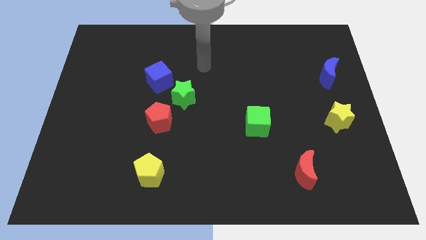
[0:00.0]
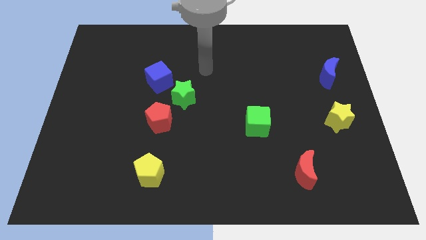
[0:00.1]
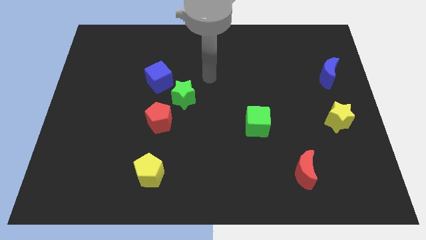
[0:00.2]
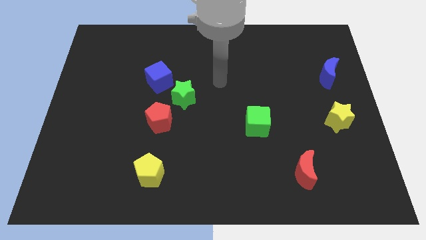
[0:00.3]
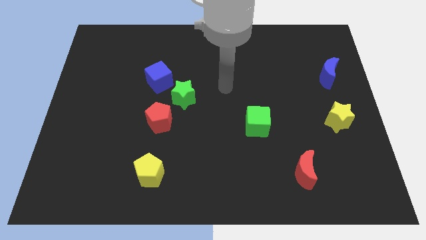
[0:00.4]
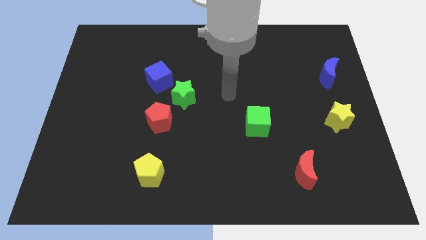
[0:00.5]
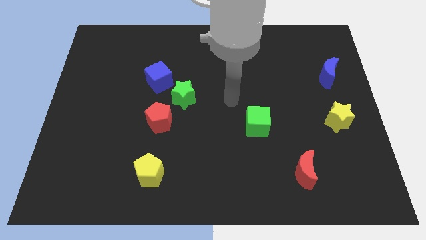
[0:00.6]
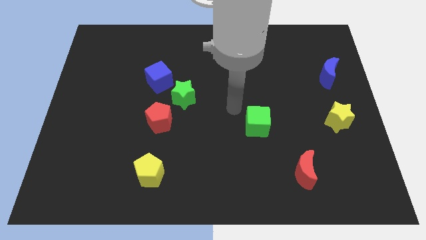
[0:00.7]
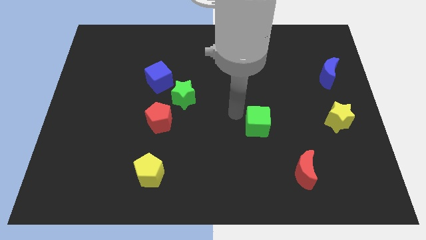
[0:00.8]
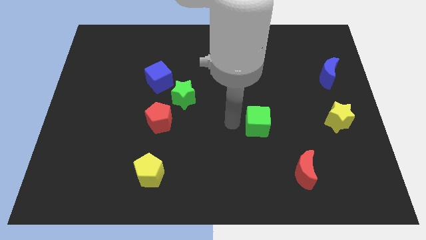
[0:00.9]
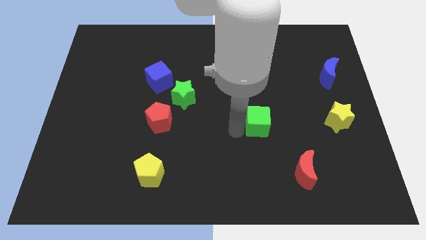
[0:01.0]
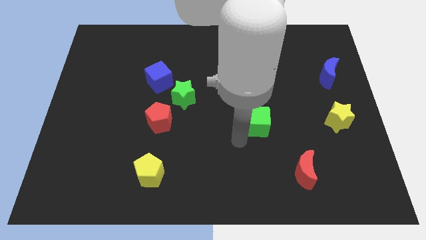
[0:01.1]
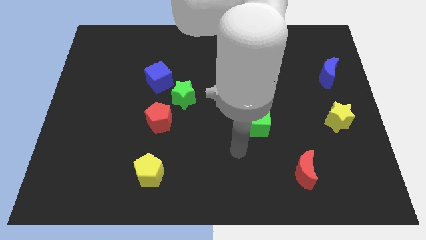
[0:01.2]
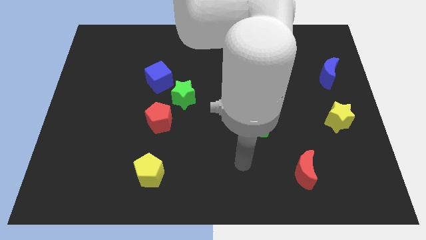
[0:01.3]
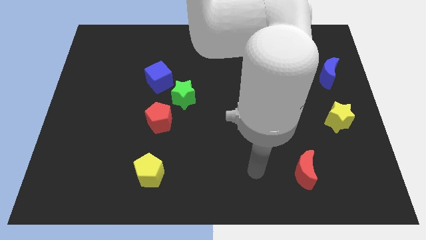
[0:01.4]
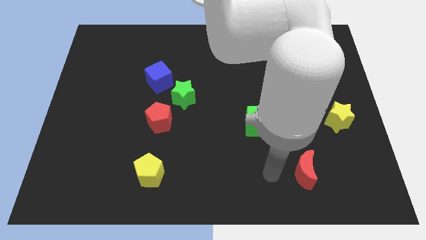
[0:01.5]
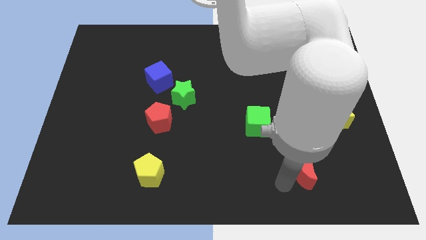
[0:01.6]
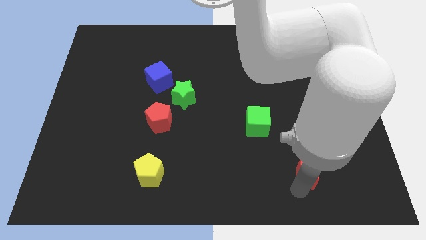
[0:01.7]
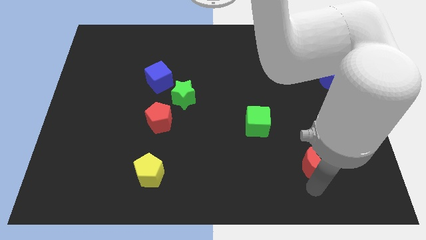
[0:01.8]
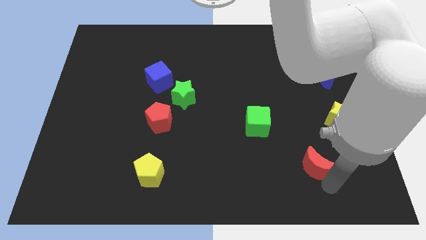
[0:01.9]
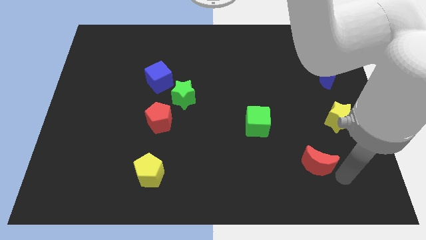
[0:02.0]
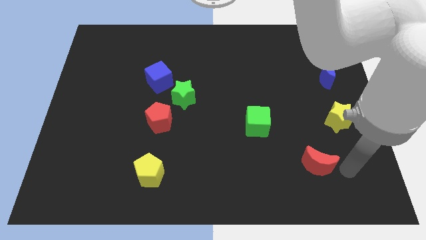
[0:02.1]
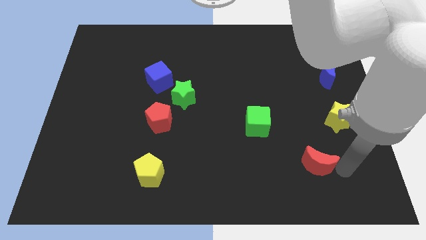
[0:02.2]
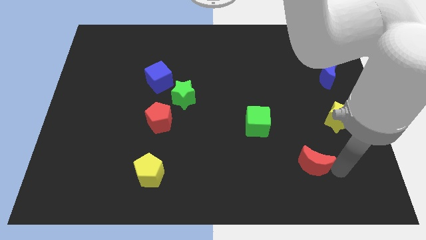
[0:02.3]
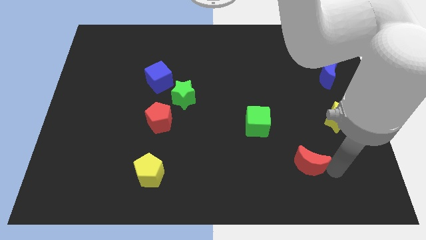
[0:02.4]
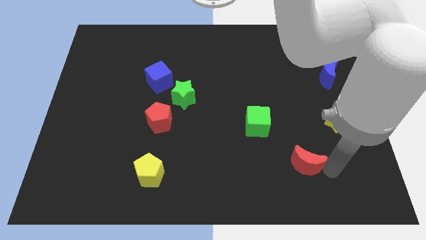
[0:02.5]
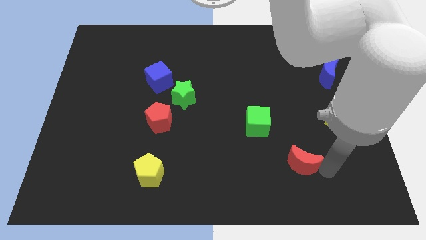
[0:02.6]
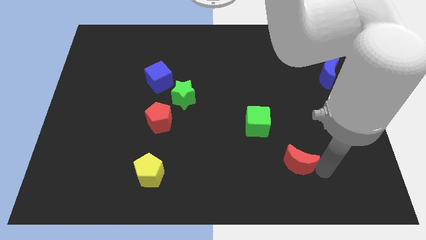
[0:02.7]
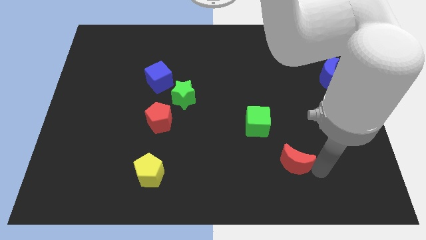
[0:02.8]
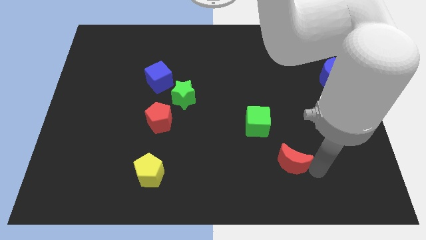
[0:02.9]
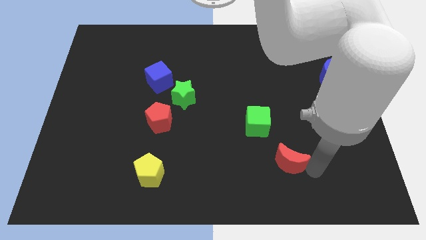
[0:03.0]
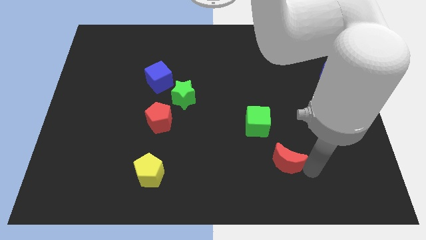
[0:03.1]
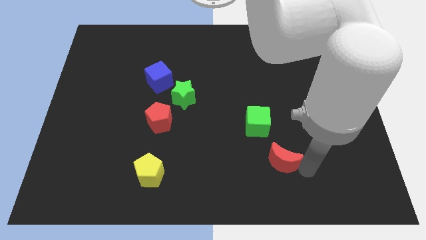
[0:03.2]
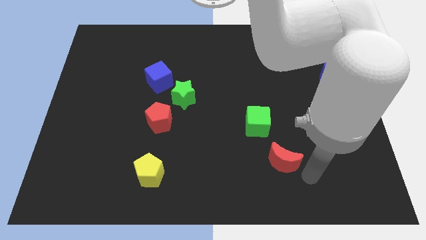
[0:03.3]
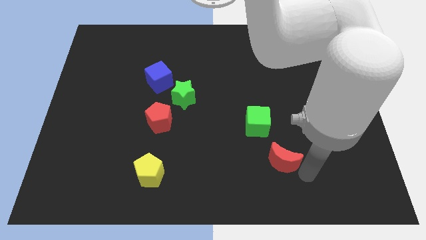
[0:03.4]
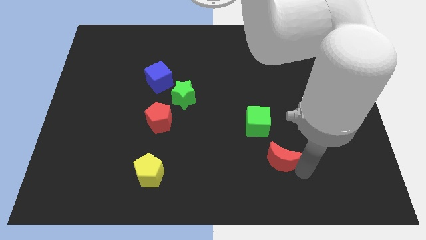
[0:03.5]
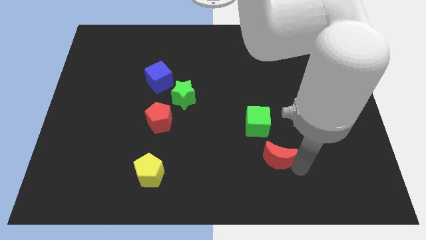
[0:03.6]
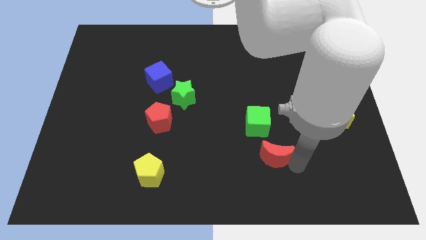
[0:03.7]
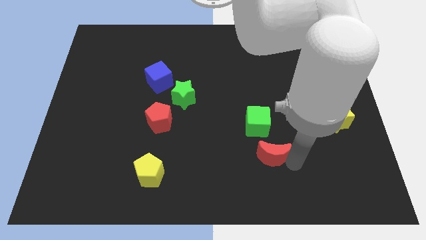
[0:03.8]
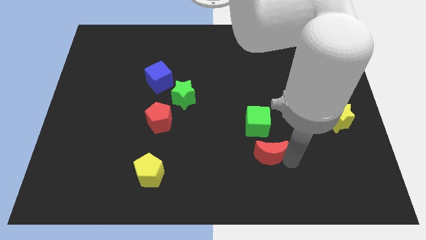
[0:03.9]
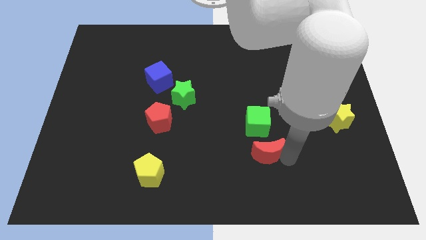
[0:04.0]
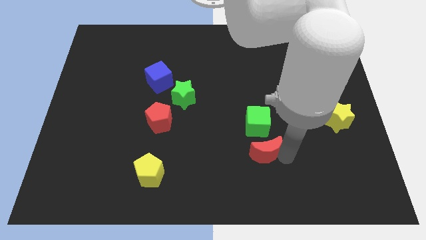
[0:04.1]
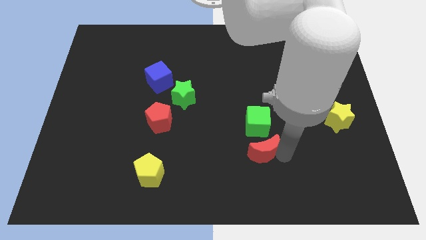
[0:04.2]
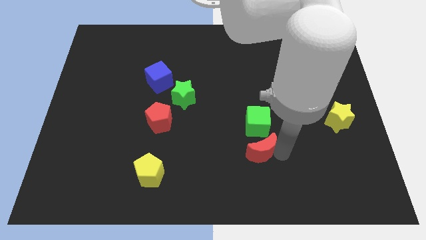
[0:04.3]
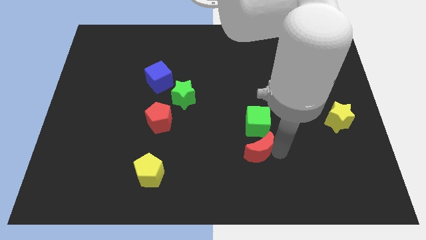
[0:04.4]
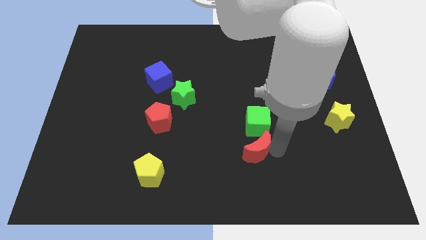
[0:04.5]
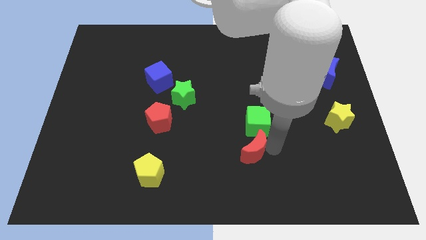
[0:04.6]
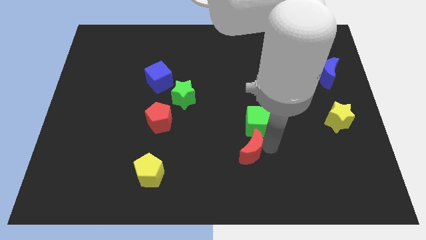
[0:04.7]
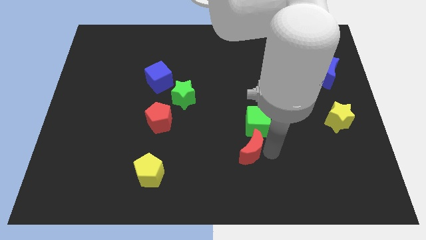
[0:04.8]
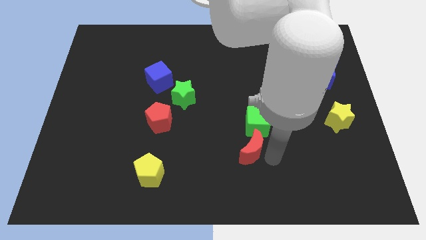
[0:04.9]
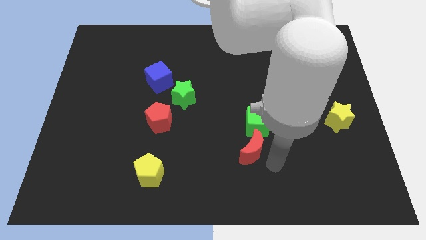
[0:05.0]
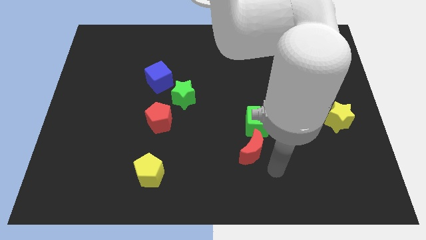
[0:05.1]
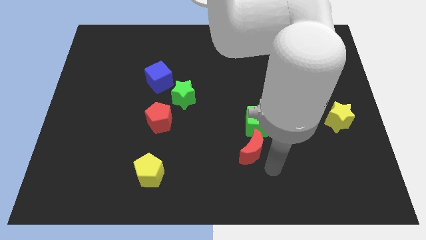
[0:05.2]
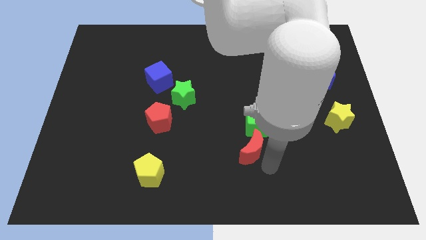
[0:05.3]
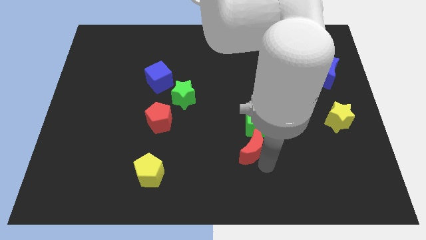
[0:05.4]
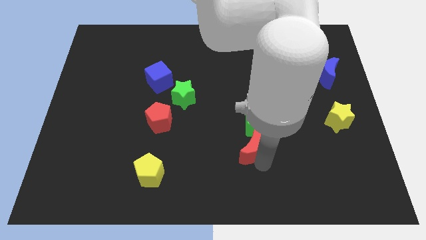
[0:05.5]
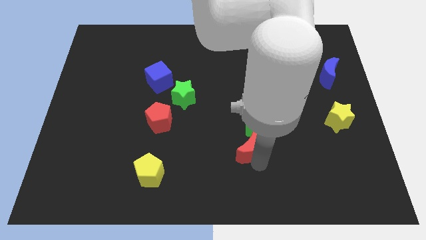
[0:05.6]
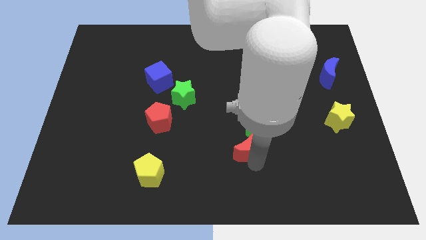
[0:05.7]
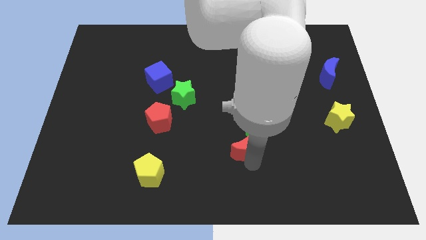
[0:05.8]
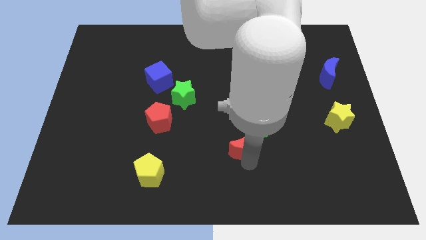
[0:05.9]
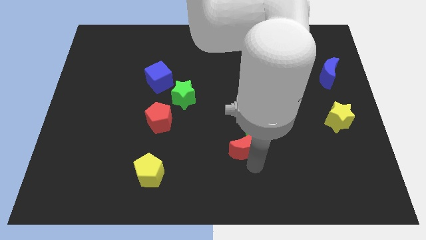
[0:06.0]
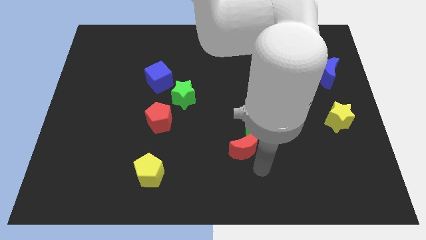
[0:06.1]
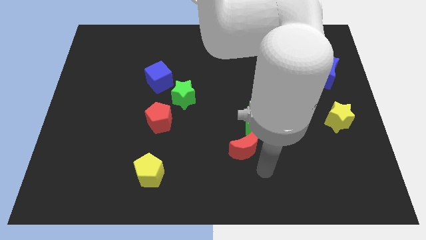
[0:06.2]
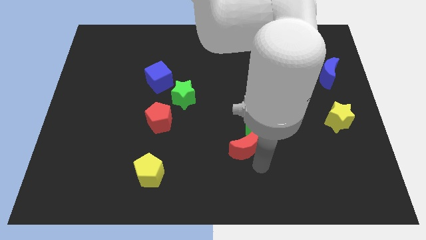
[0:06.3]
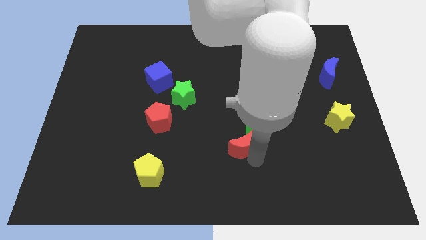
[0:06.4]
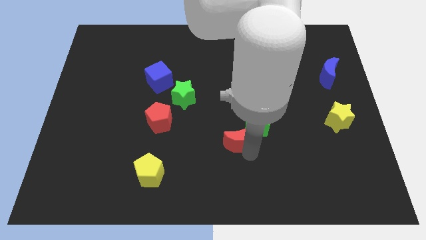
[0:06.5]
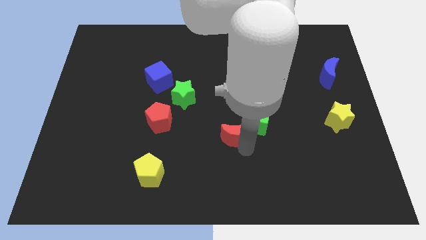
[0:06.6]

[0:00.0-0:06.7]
push the red moon just left of the green cube

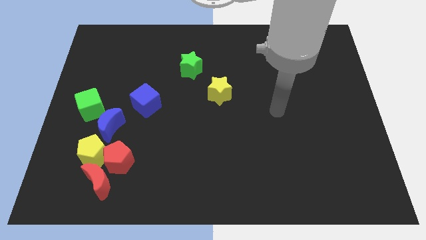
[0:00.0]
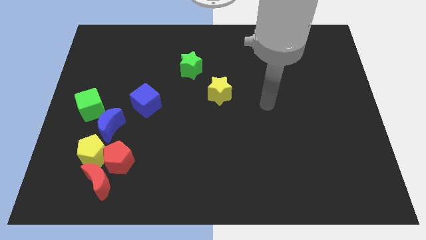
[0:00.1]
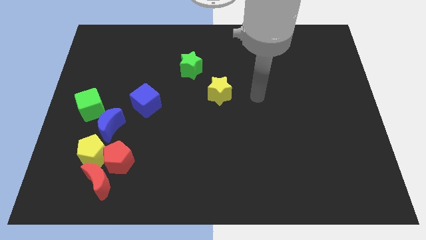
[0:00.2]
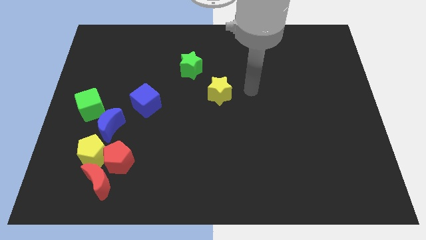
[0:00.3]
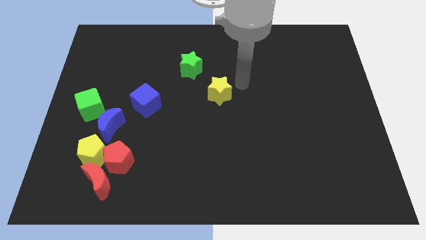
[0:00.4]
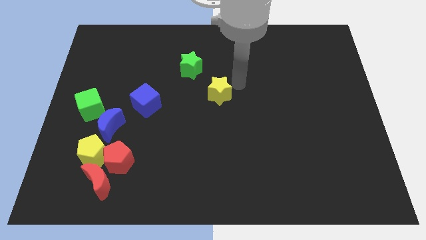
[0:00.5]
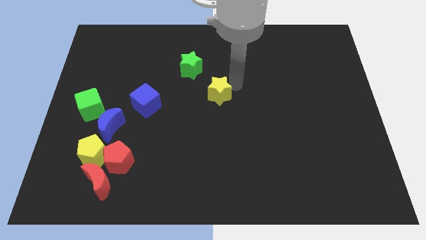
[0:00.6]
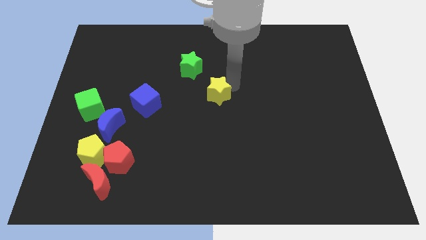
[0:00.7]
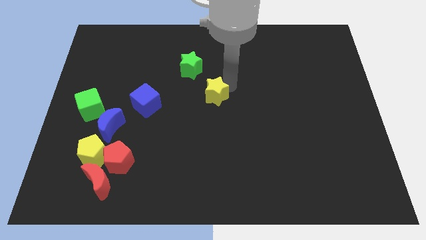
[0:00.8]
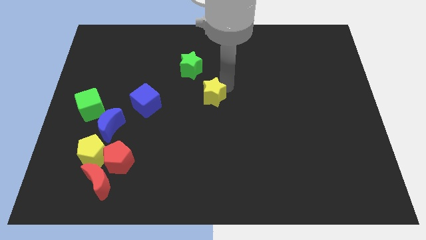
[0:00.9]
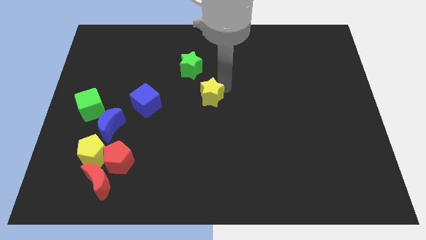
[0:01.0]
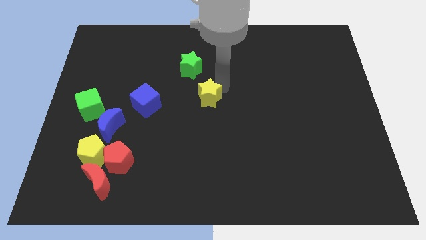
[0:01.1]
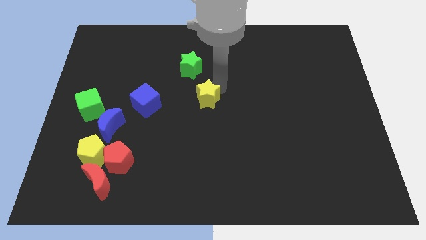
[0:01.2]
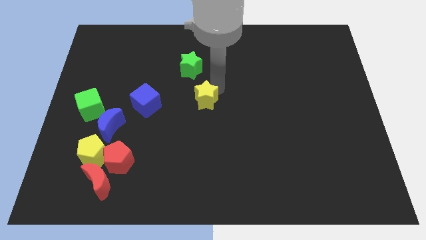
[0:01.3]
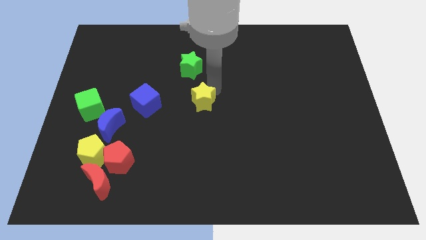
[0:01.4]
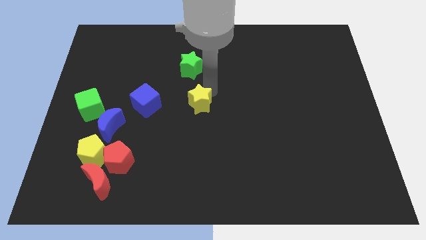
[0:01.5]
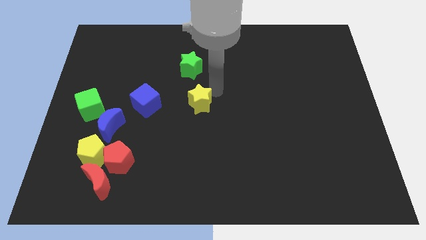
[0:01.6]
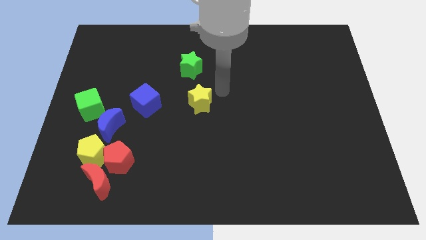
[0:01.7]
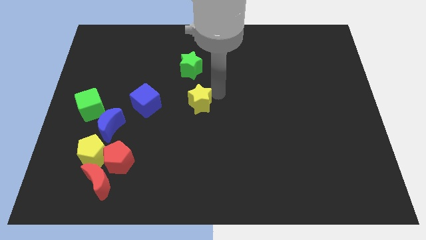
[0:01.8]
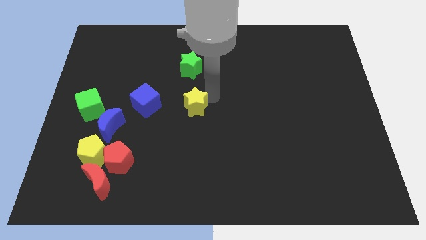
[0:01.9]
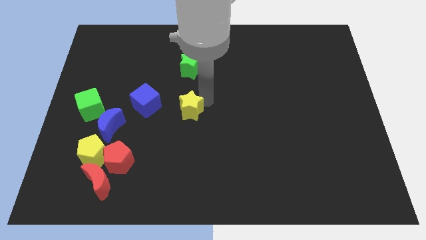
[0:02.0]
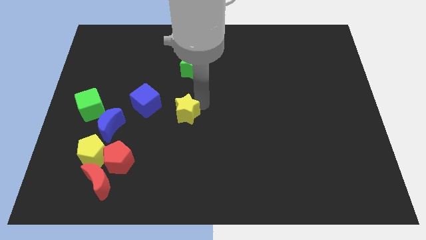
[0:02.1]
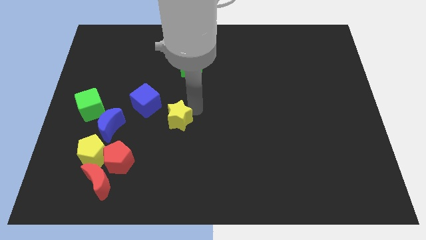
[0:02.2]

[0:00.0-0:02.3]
push the yellow star right of the blue moon
